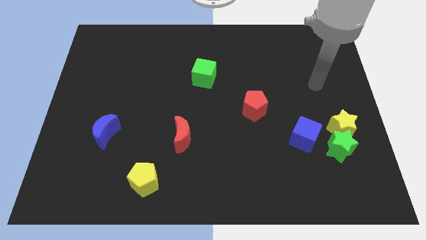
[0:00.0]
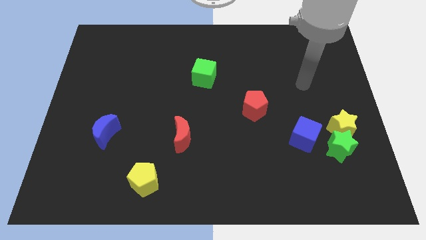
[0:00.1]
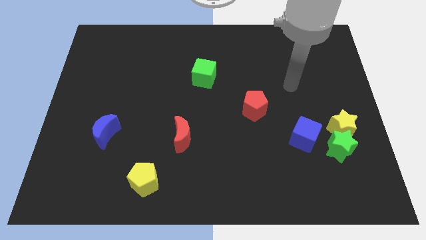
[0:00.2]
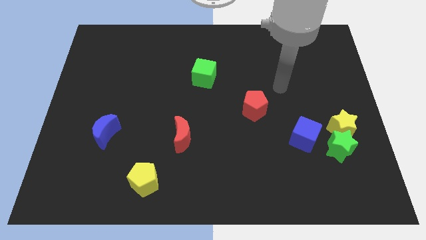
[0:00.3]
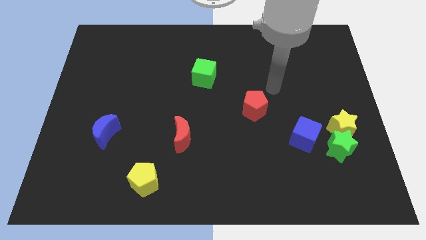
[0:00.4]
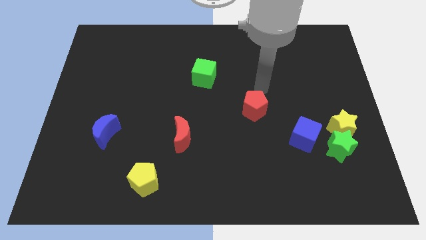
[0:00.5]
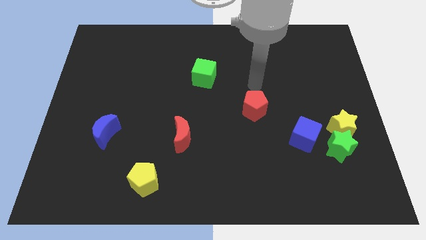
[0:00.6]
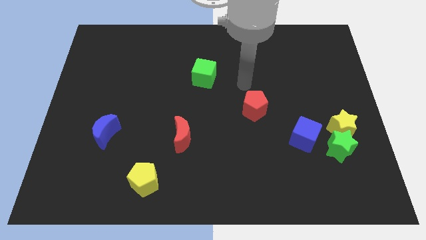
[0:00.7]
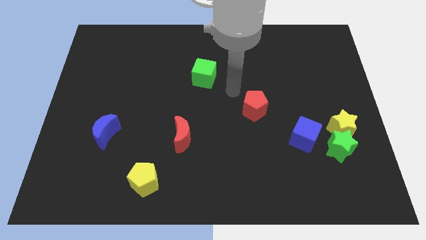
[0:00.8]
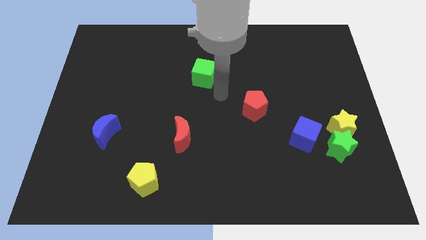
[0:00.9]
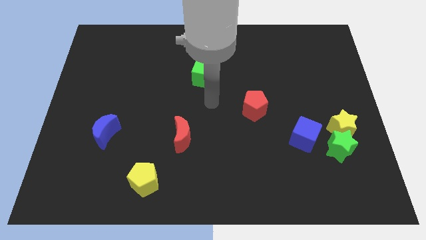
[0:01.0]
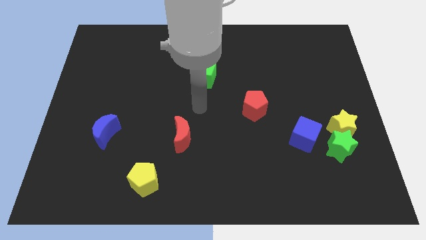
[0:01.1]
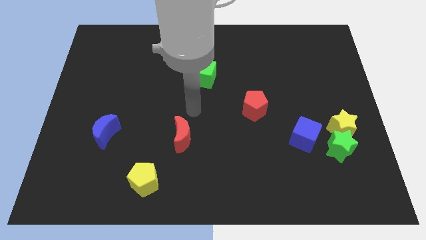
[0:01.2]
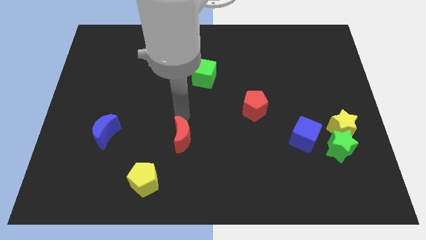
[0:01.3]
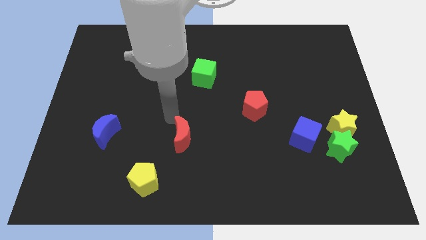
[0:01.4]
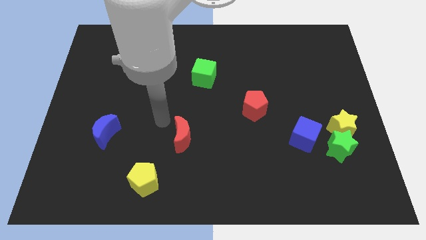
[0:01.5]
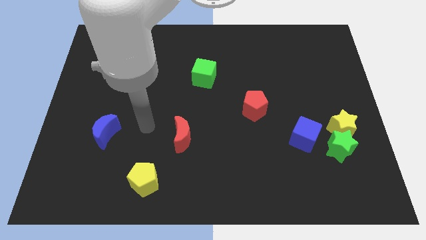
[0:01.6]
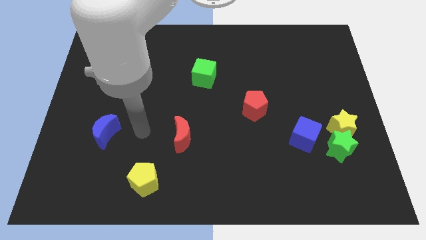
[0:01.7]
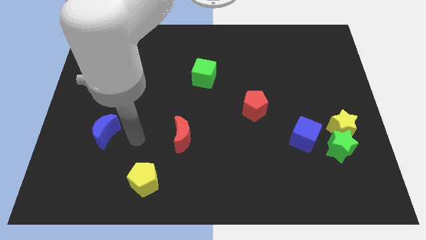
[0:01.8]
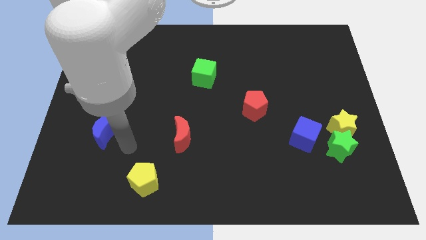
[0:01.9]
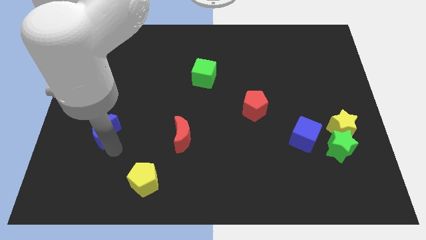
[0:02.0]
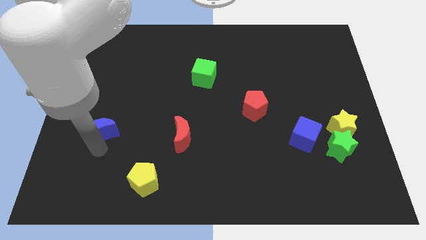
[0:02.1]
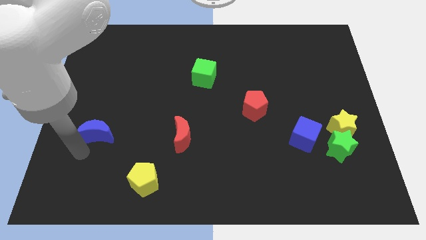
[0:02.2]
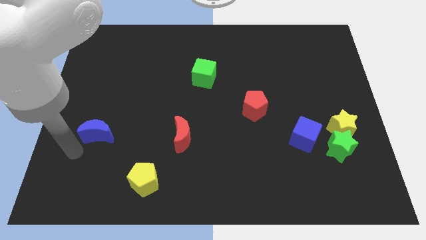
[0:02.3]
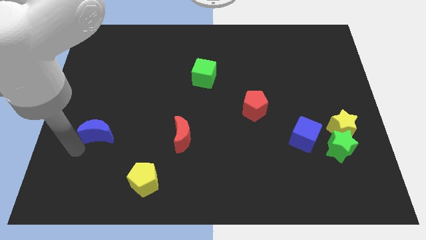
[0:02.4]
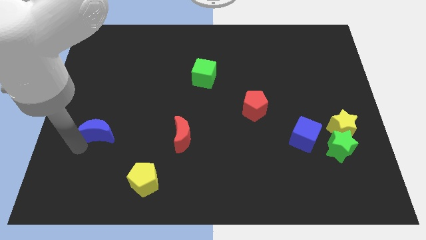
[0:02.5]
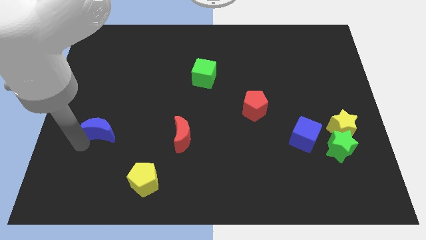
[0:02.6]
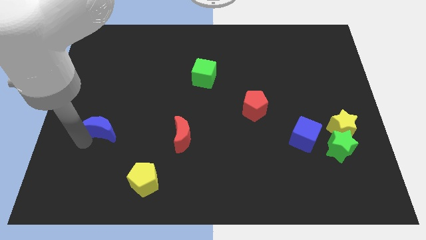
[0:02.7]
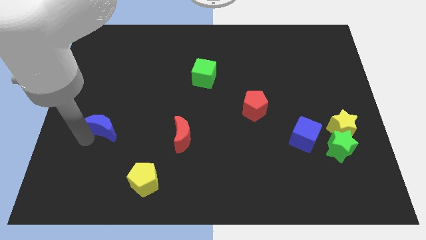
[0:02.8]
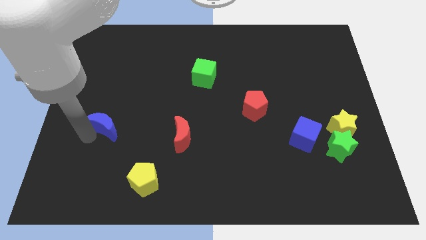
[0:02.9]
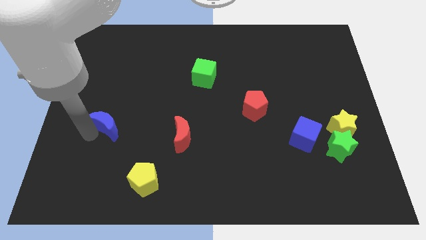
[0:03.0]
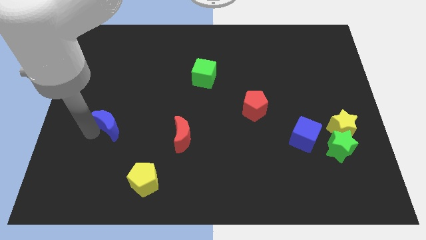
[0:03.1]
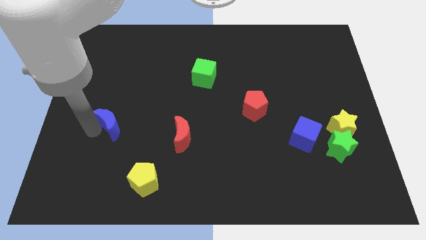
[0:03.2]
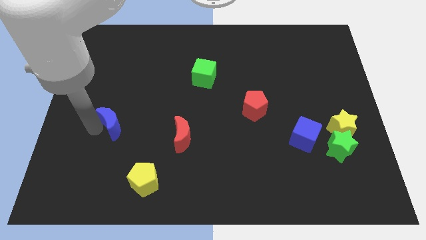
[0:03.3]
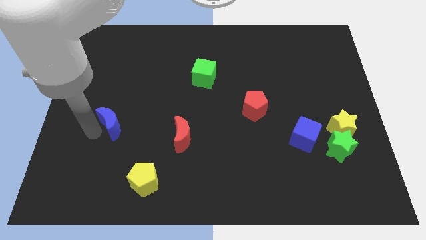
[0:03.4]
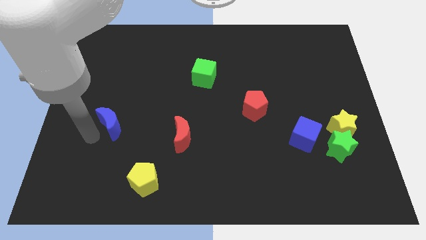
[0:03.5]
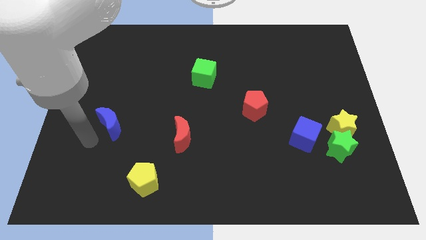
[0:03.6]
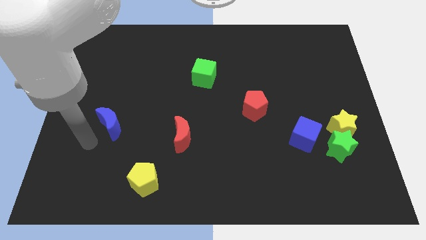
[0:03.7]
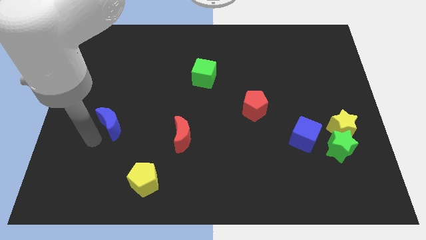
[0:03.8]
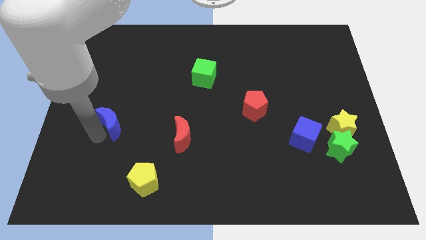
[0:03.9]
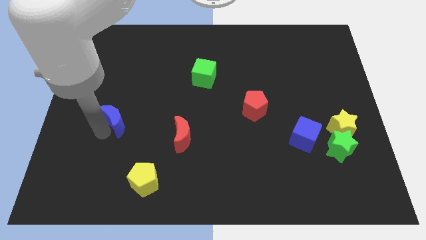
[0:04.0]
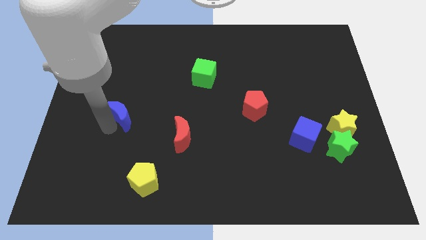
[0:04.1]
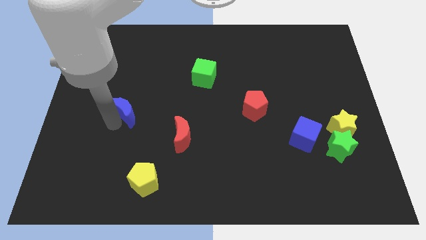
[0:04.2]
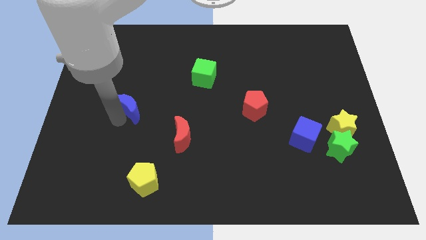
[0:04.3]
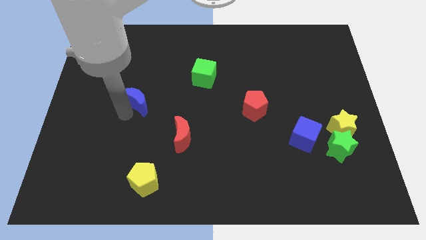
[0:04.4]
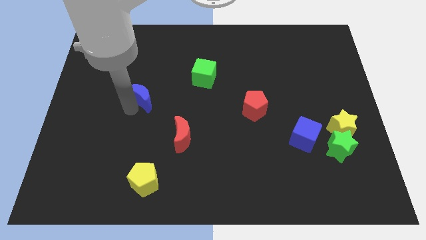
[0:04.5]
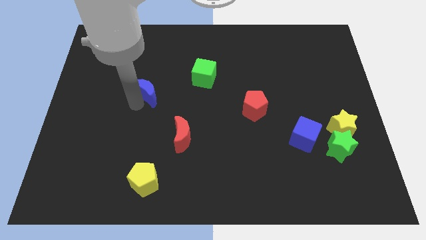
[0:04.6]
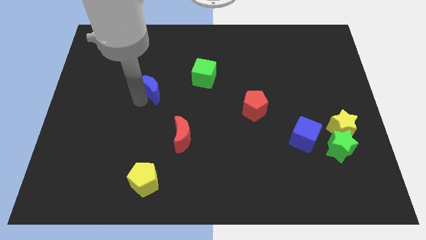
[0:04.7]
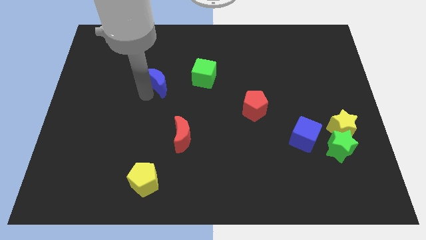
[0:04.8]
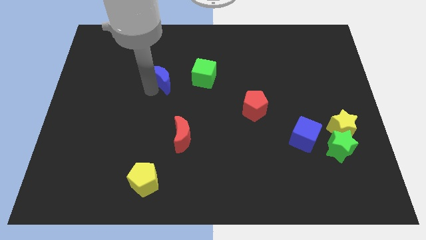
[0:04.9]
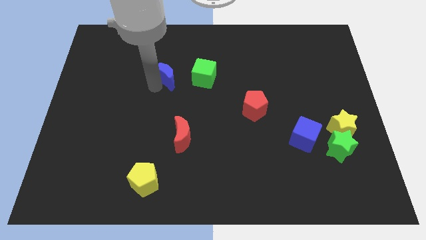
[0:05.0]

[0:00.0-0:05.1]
push the blue moon up and then right

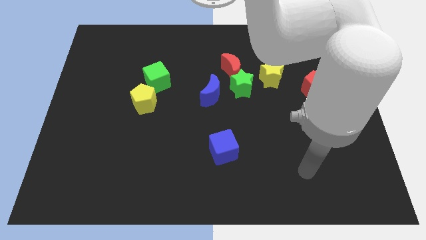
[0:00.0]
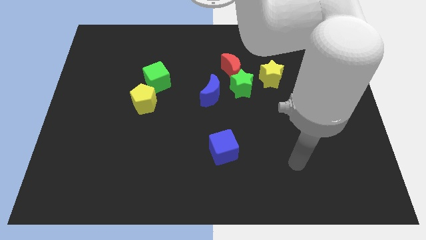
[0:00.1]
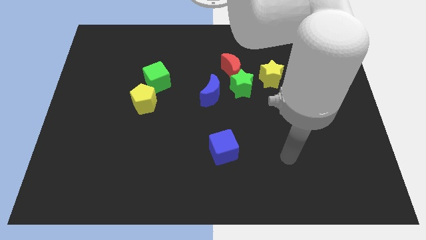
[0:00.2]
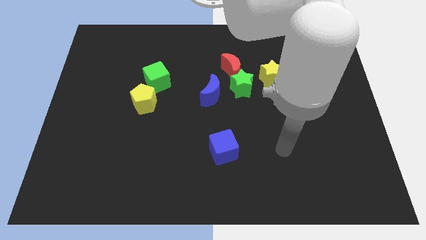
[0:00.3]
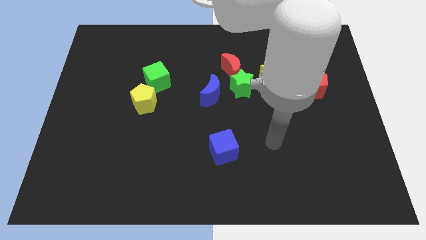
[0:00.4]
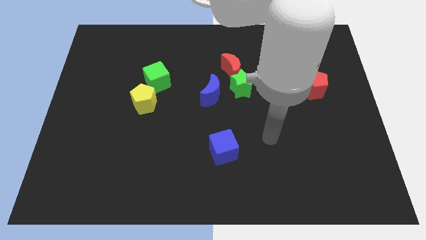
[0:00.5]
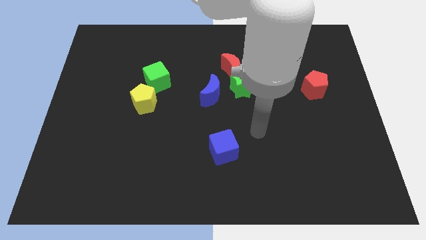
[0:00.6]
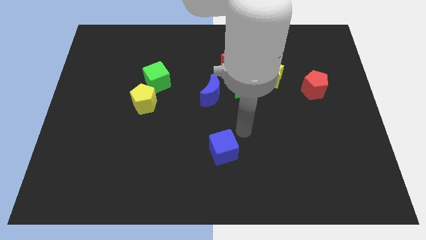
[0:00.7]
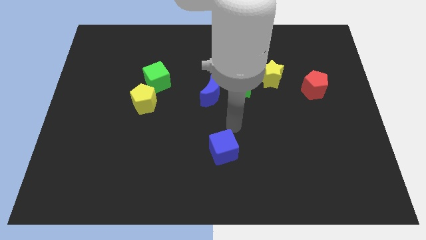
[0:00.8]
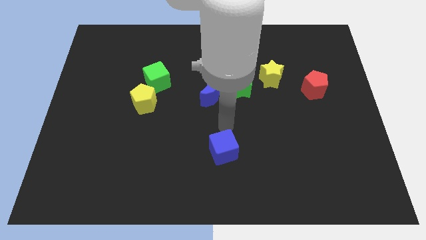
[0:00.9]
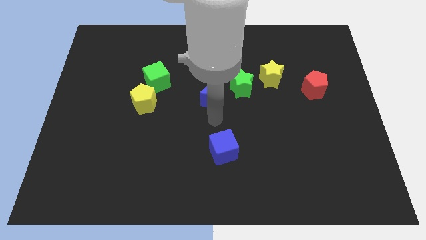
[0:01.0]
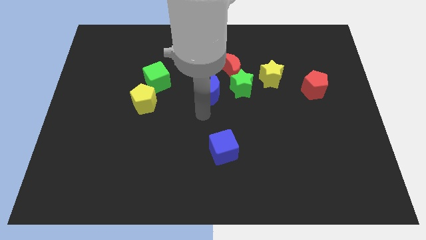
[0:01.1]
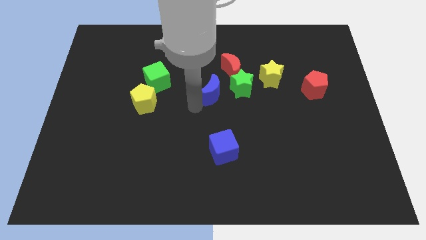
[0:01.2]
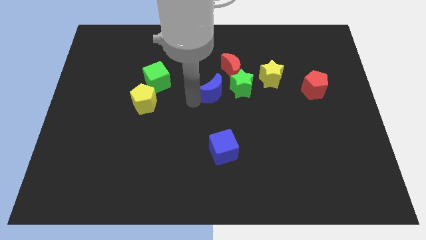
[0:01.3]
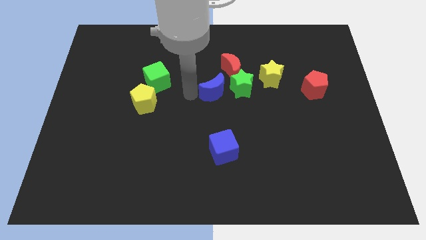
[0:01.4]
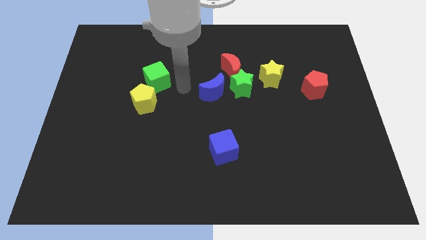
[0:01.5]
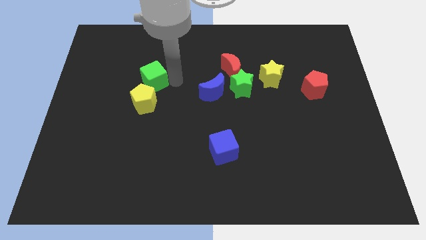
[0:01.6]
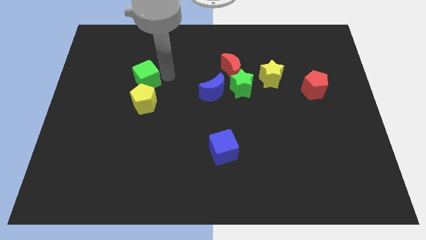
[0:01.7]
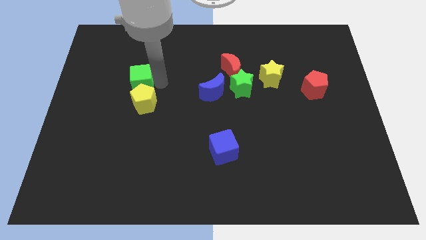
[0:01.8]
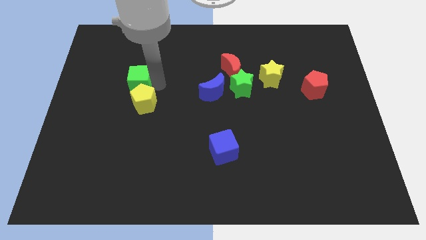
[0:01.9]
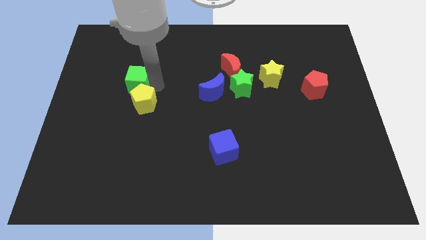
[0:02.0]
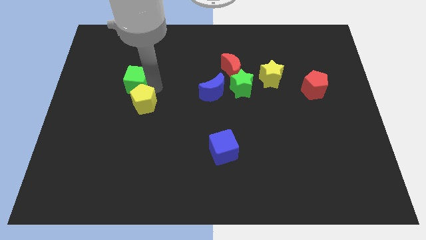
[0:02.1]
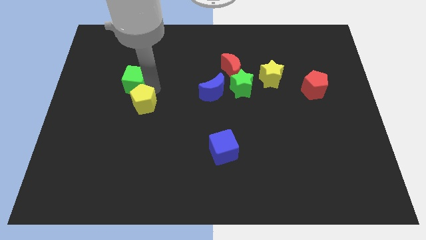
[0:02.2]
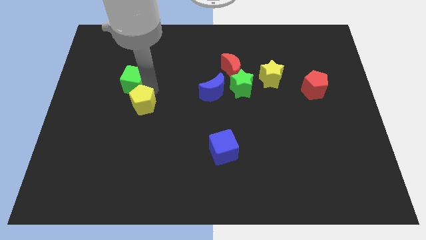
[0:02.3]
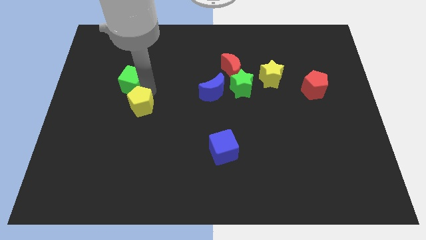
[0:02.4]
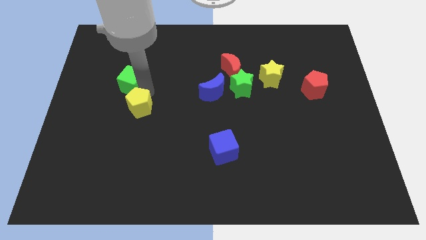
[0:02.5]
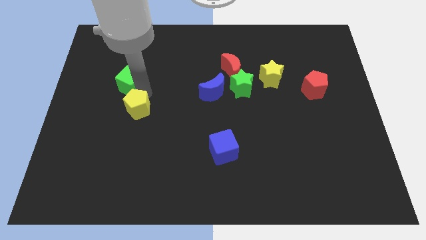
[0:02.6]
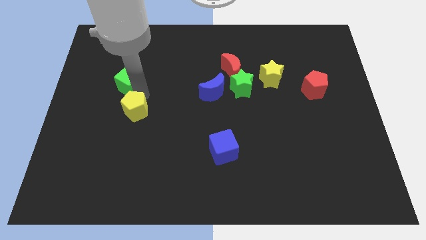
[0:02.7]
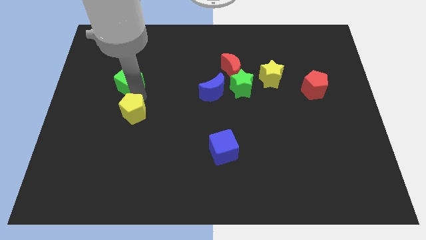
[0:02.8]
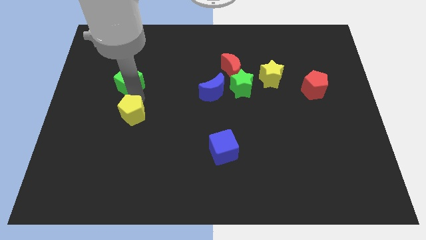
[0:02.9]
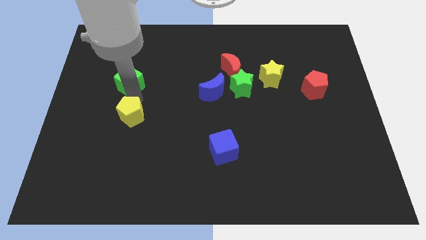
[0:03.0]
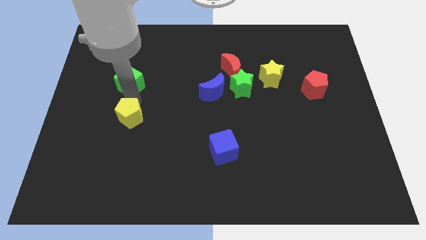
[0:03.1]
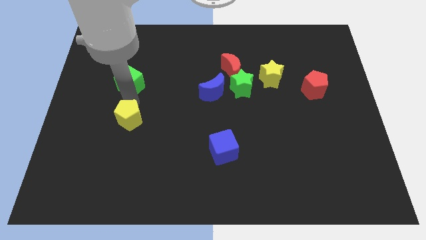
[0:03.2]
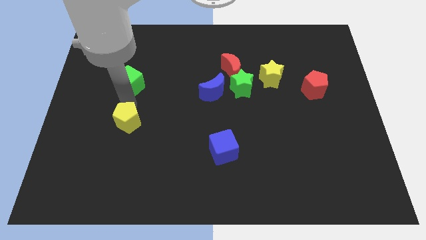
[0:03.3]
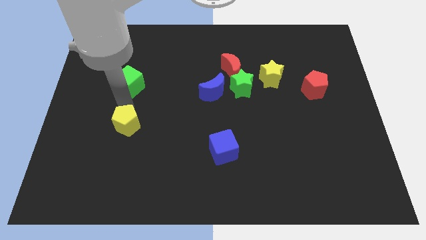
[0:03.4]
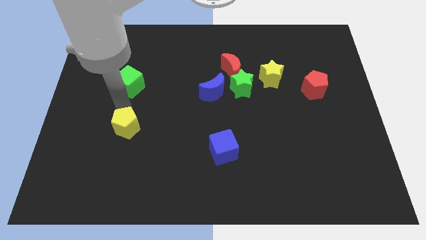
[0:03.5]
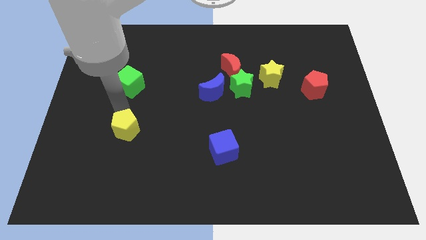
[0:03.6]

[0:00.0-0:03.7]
slightly slide the yellow pentagon downwards
